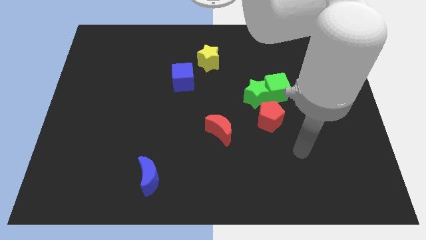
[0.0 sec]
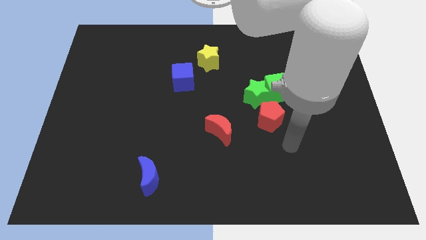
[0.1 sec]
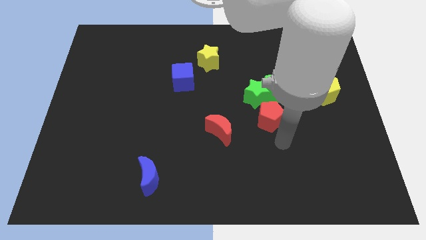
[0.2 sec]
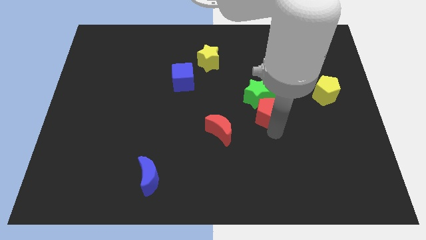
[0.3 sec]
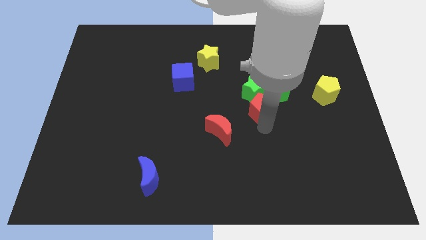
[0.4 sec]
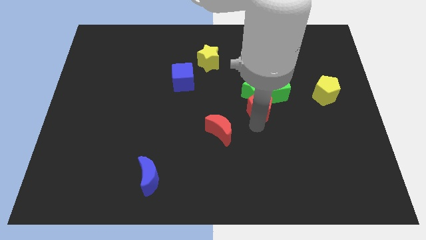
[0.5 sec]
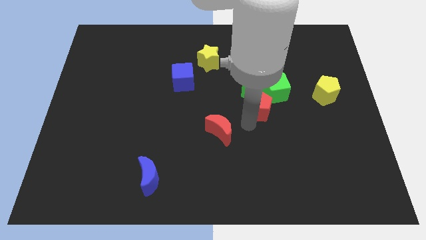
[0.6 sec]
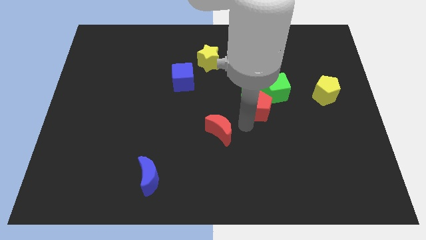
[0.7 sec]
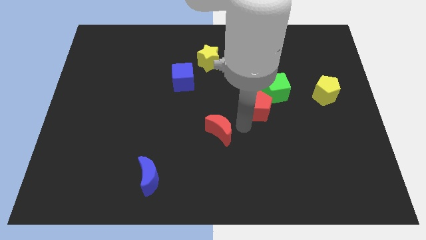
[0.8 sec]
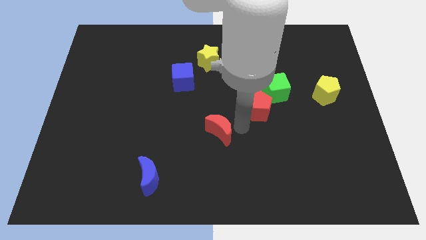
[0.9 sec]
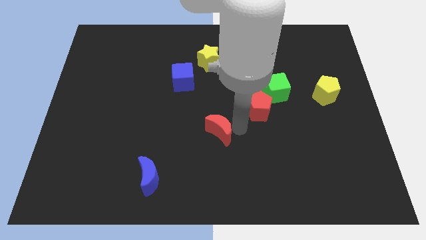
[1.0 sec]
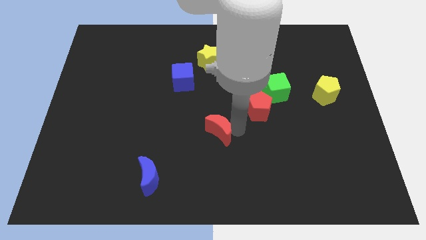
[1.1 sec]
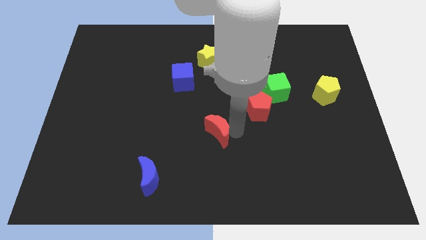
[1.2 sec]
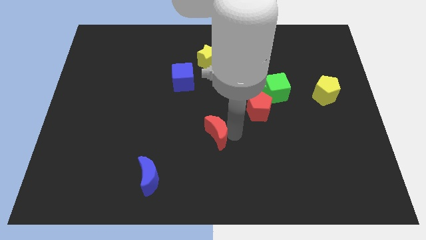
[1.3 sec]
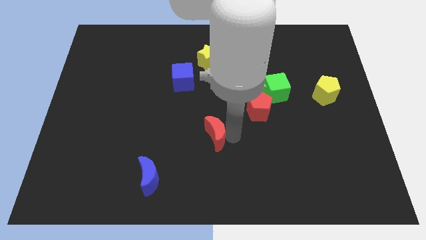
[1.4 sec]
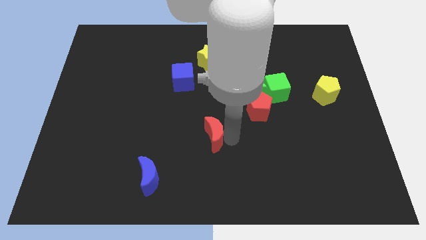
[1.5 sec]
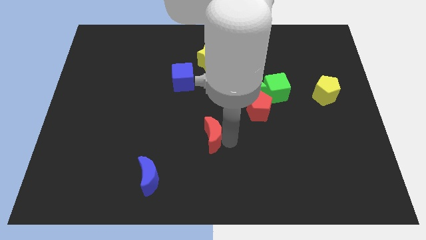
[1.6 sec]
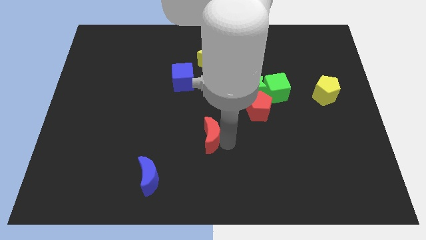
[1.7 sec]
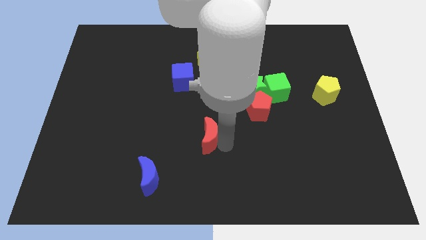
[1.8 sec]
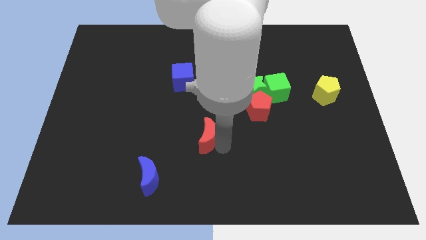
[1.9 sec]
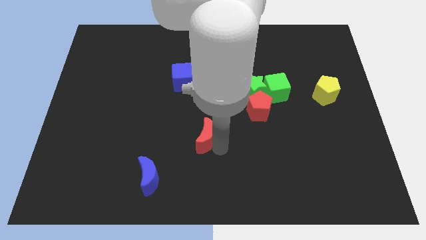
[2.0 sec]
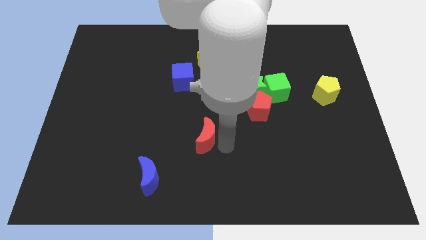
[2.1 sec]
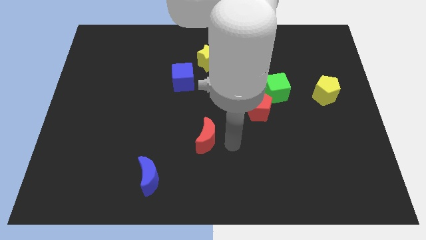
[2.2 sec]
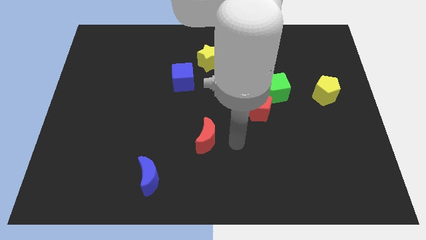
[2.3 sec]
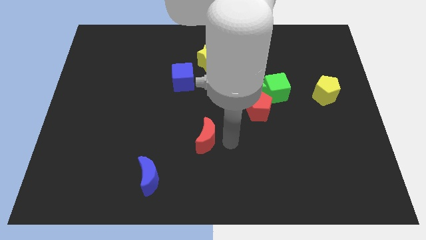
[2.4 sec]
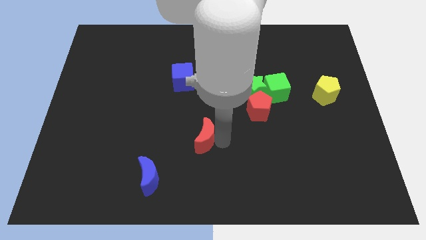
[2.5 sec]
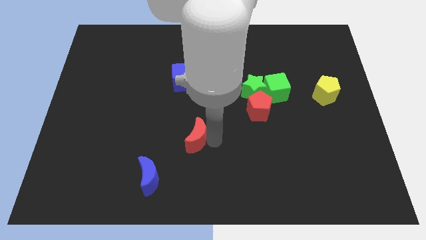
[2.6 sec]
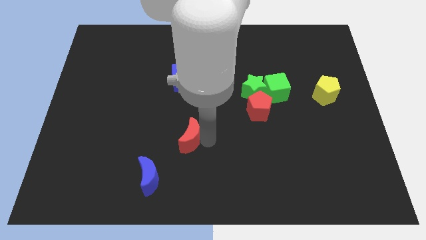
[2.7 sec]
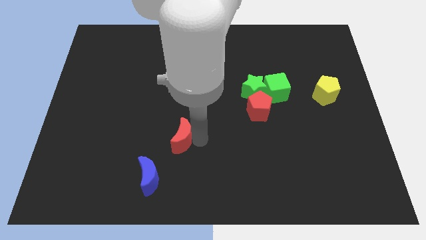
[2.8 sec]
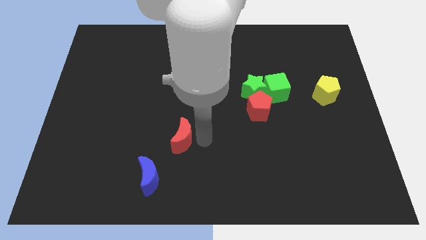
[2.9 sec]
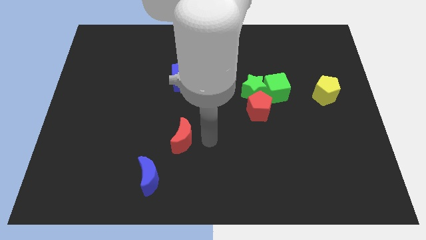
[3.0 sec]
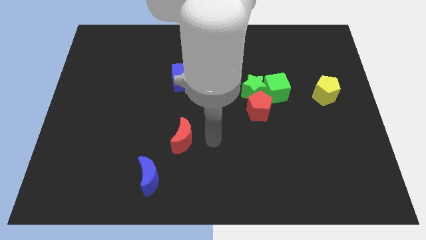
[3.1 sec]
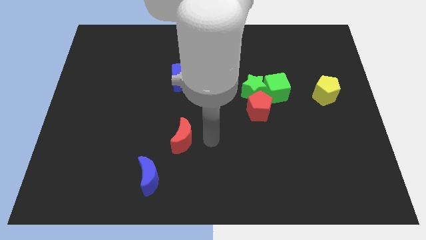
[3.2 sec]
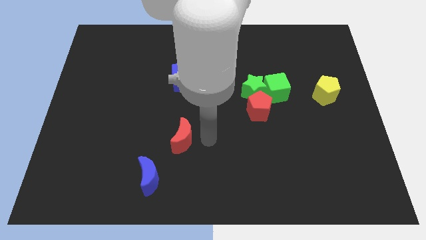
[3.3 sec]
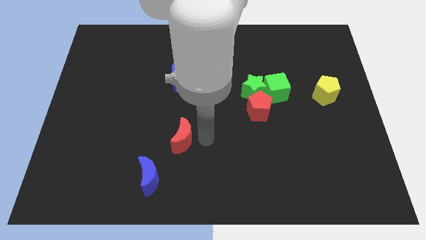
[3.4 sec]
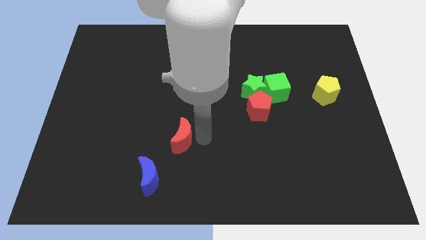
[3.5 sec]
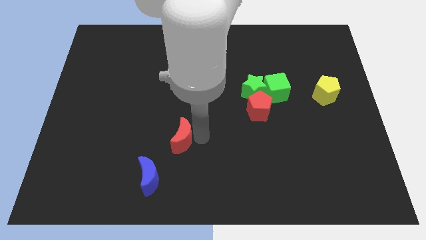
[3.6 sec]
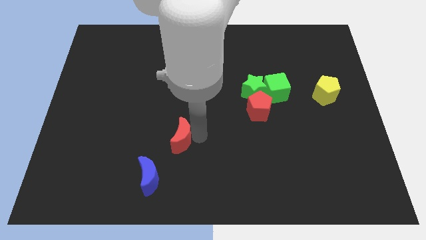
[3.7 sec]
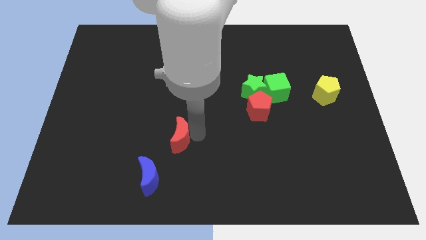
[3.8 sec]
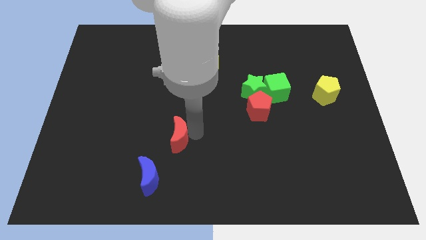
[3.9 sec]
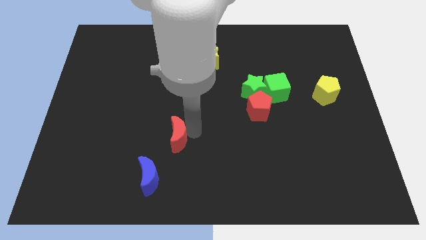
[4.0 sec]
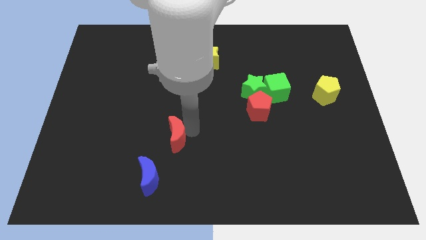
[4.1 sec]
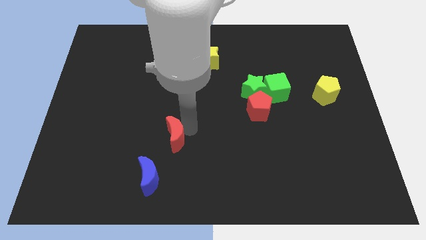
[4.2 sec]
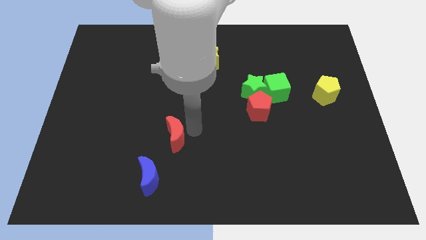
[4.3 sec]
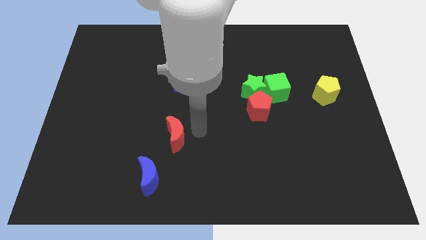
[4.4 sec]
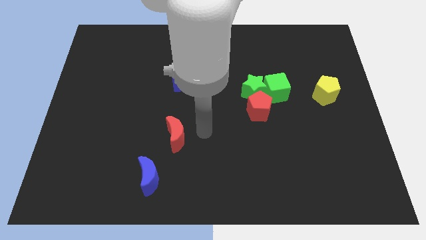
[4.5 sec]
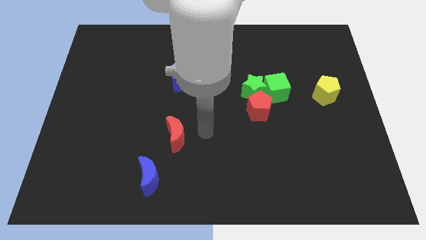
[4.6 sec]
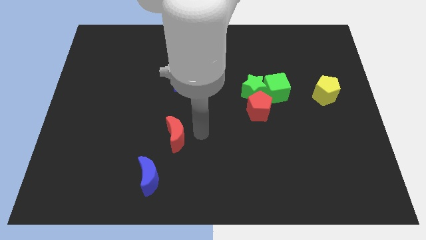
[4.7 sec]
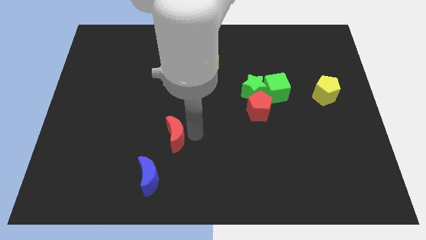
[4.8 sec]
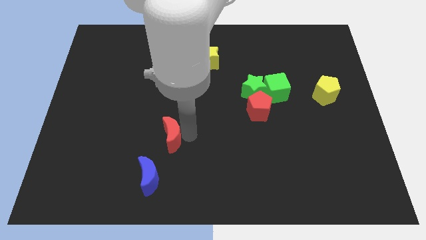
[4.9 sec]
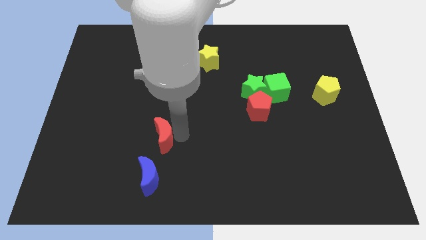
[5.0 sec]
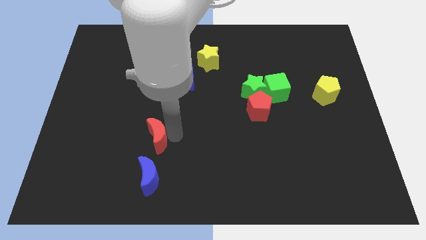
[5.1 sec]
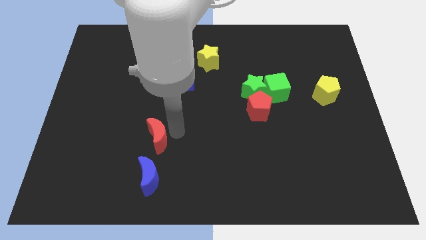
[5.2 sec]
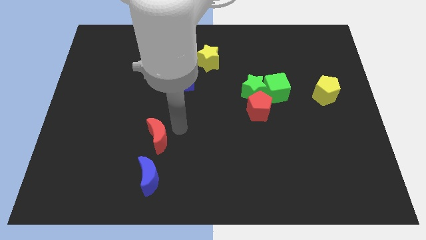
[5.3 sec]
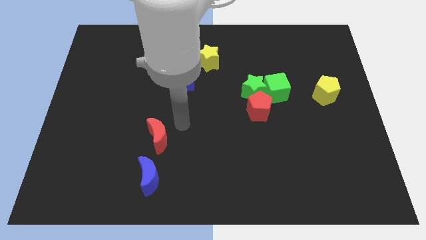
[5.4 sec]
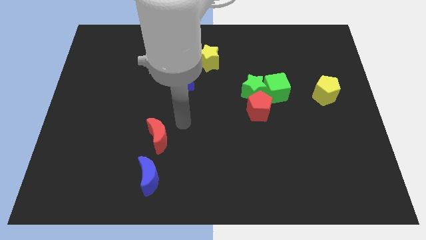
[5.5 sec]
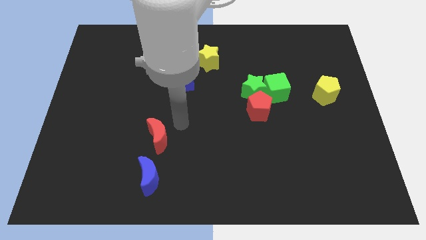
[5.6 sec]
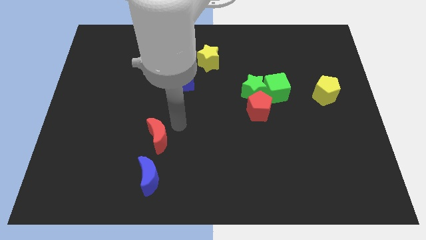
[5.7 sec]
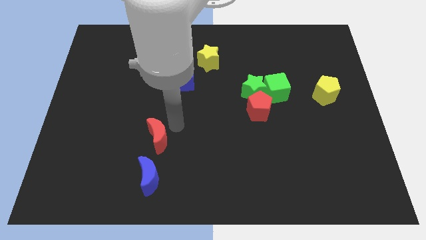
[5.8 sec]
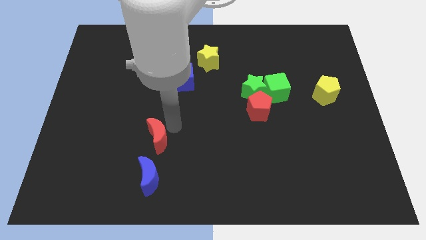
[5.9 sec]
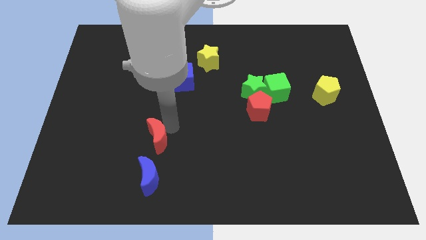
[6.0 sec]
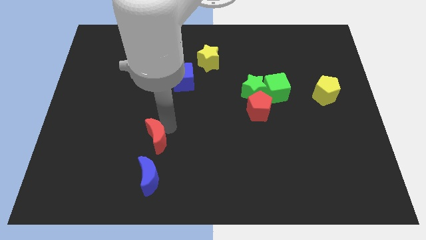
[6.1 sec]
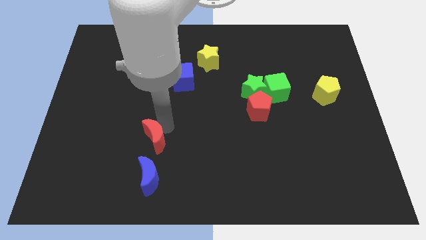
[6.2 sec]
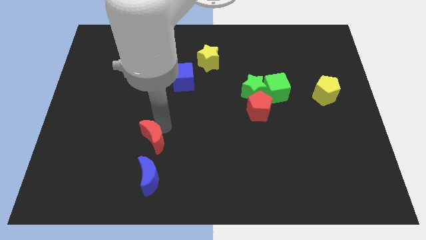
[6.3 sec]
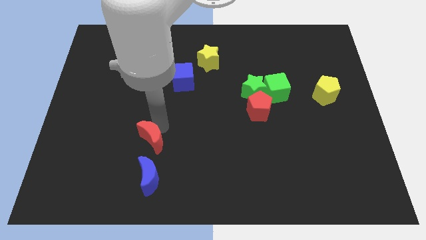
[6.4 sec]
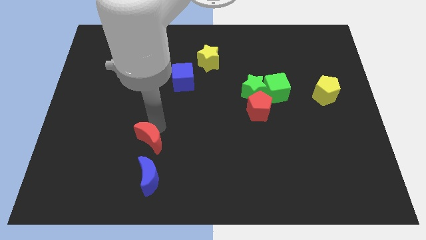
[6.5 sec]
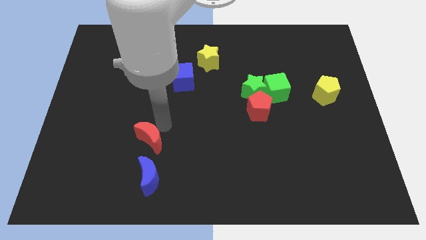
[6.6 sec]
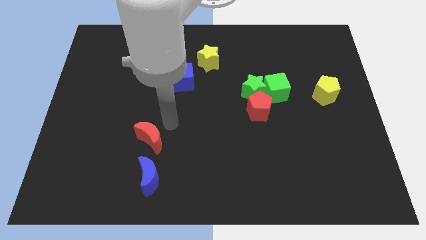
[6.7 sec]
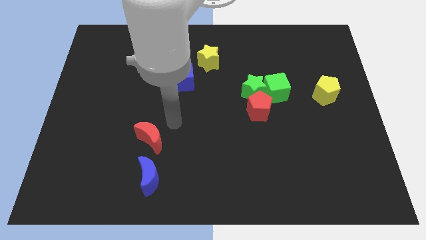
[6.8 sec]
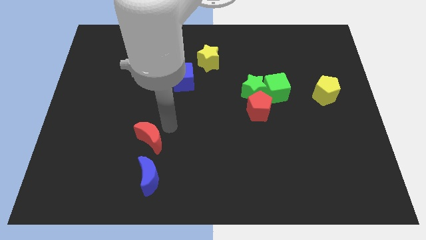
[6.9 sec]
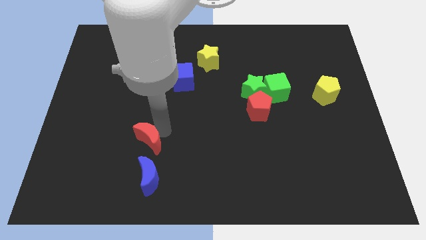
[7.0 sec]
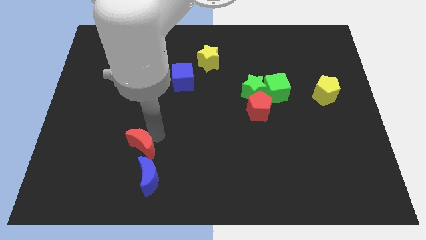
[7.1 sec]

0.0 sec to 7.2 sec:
move the red moon to the top left side of the blue moon

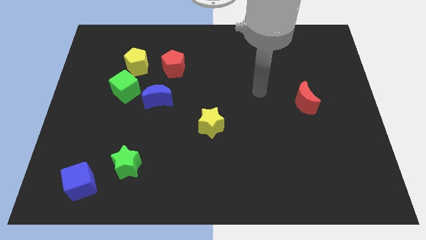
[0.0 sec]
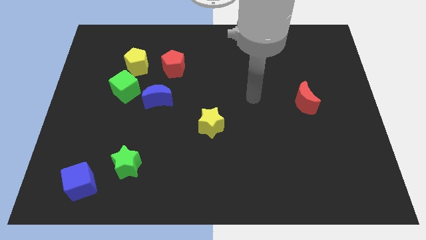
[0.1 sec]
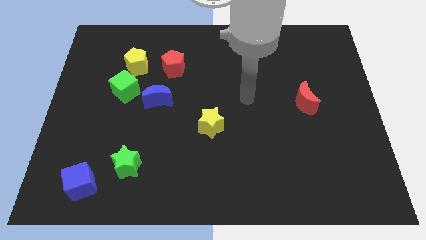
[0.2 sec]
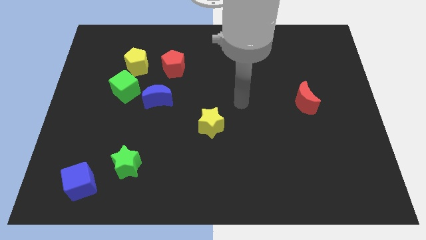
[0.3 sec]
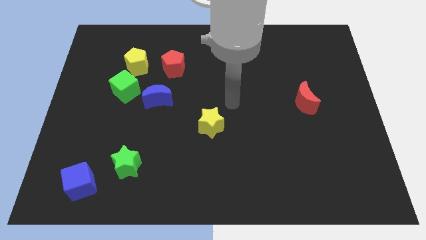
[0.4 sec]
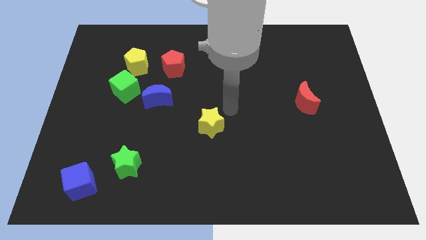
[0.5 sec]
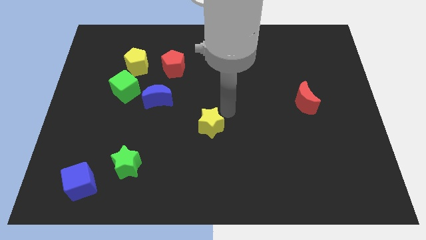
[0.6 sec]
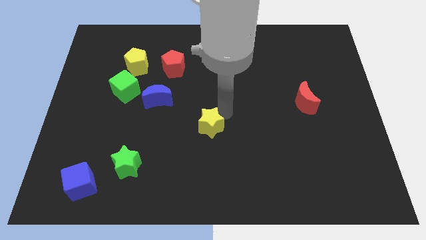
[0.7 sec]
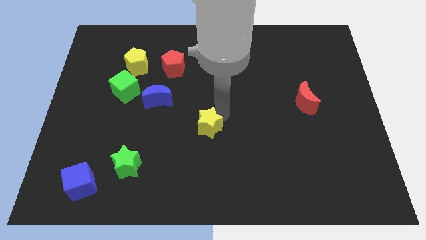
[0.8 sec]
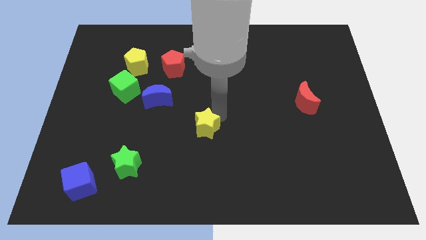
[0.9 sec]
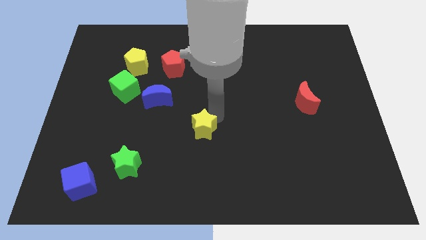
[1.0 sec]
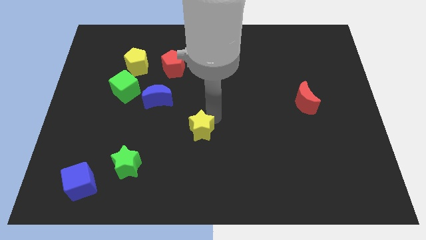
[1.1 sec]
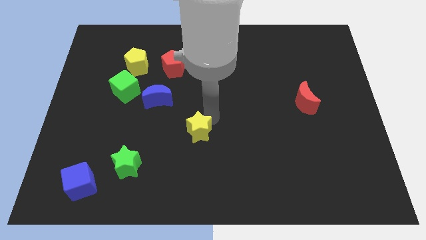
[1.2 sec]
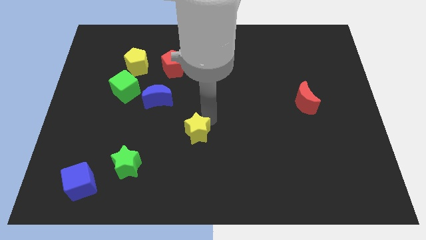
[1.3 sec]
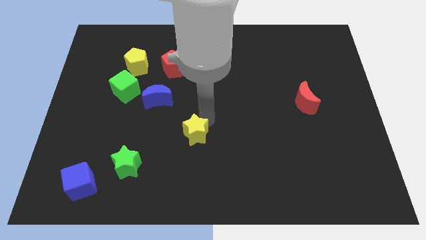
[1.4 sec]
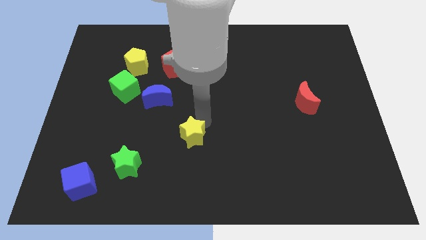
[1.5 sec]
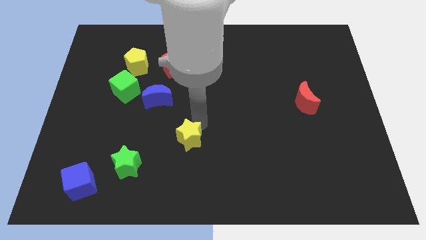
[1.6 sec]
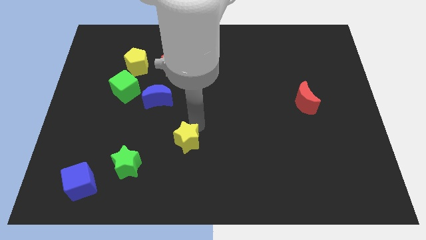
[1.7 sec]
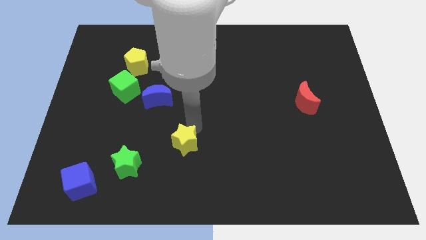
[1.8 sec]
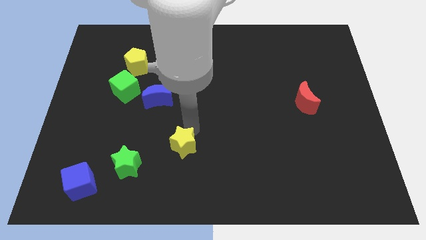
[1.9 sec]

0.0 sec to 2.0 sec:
put the yellow star to the right of the green star
